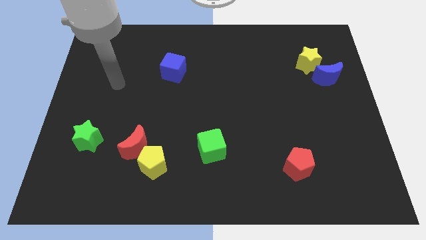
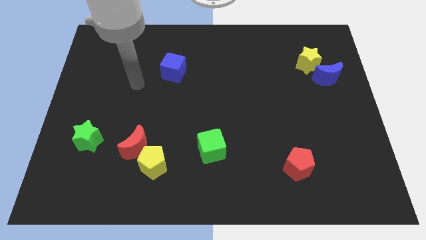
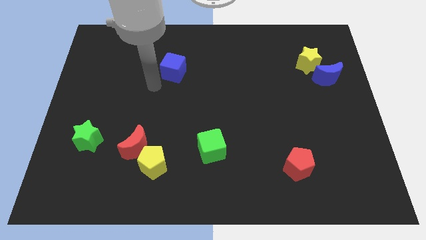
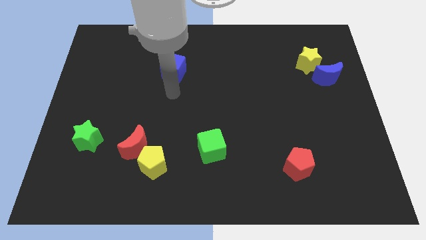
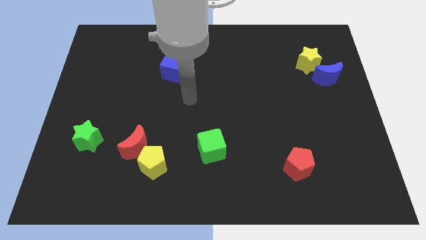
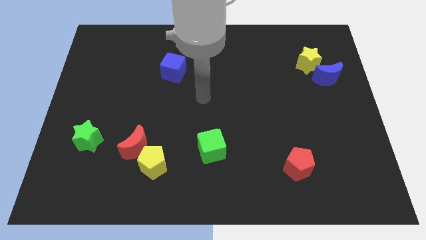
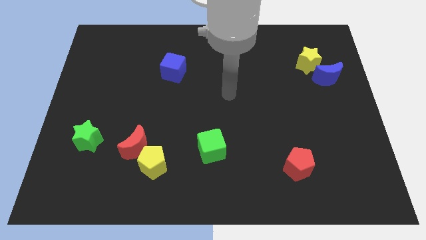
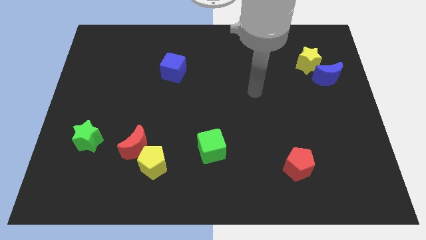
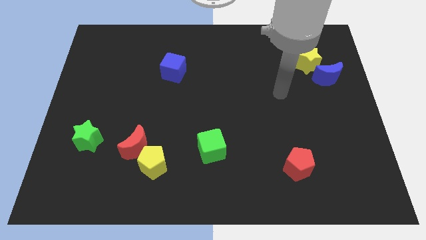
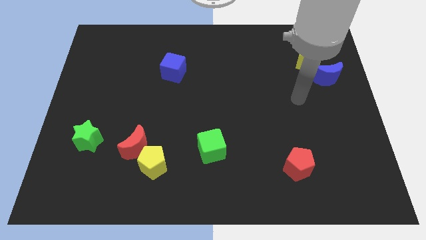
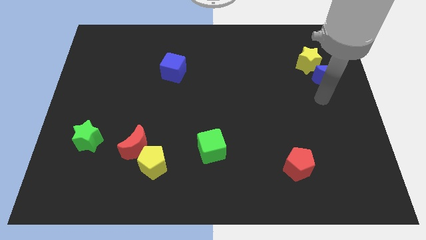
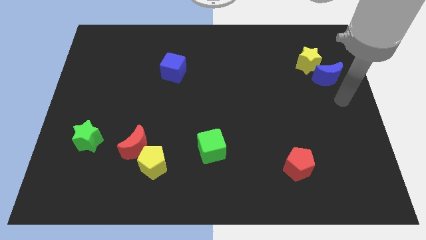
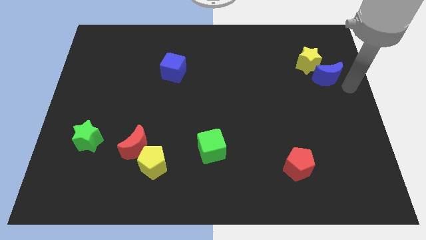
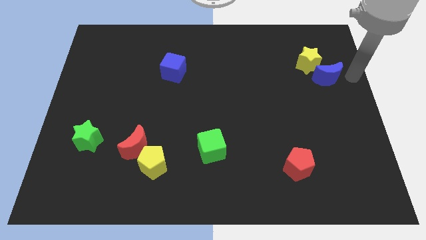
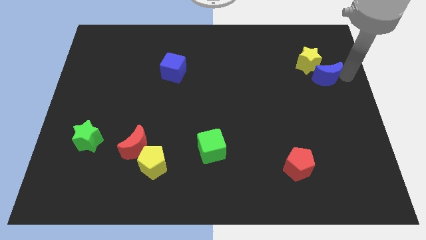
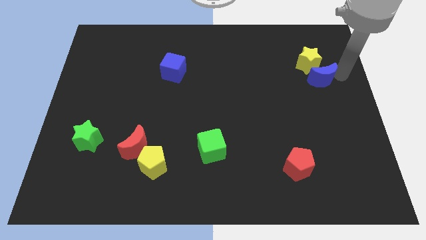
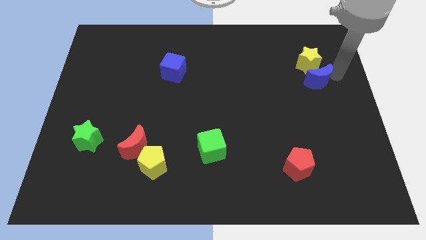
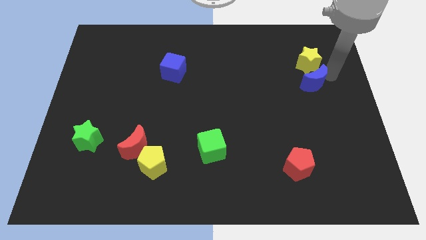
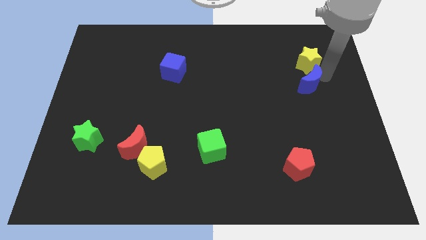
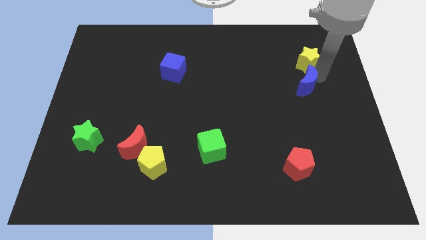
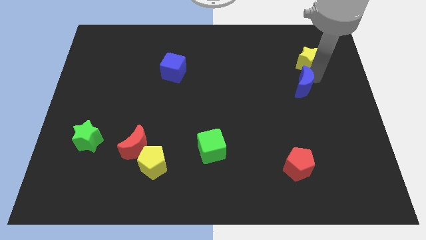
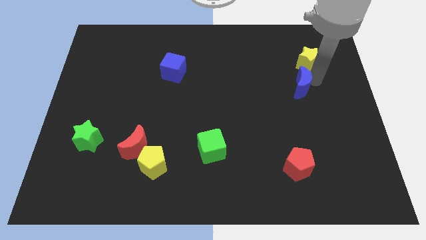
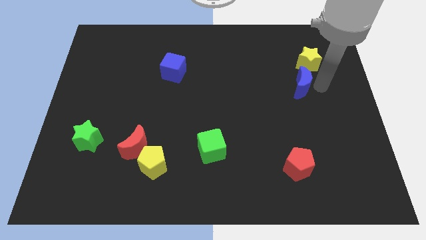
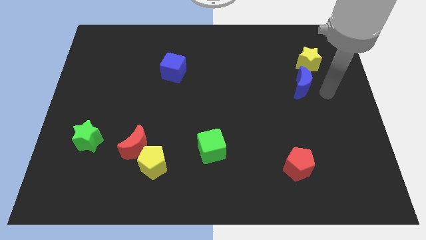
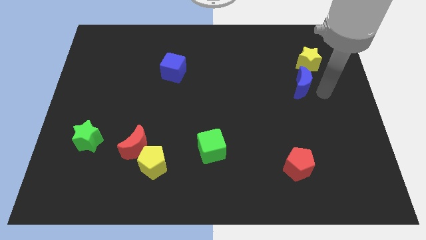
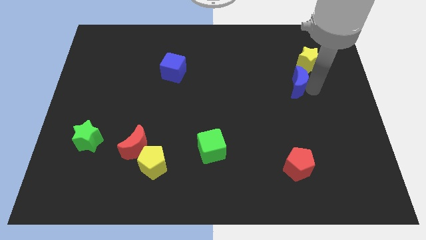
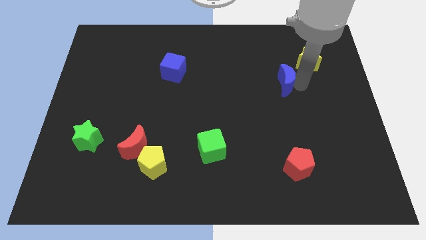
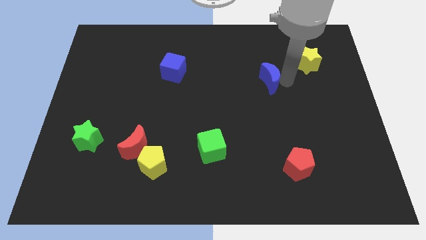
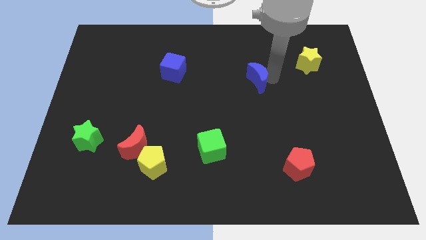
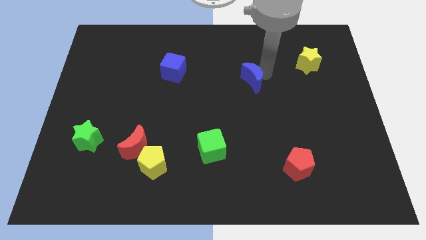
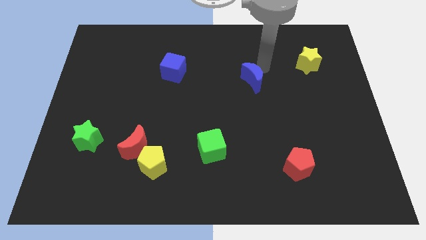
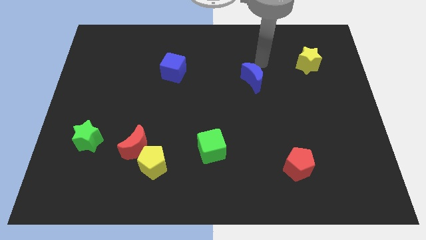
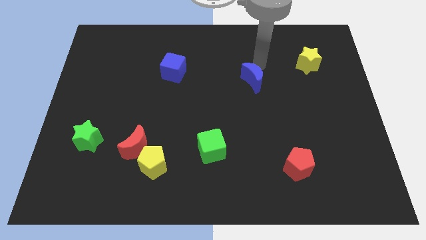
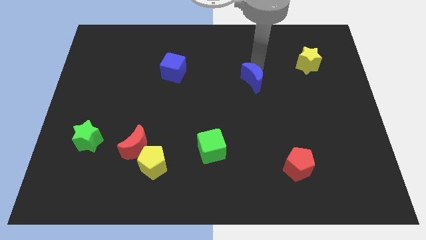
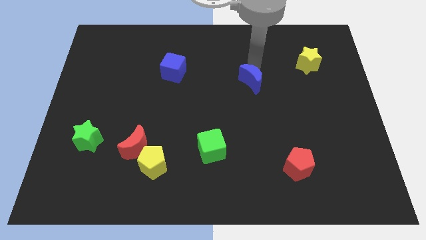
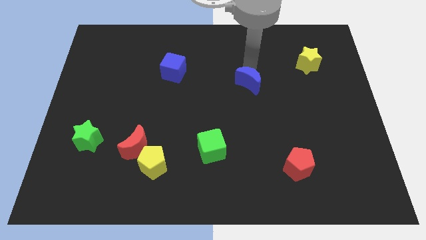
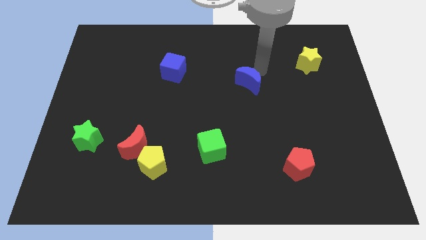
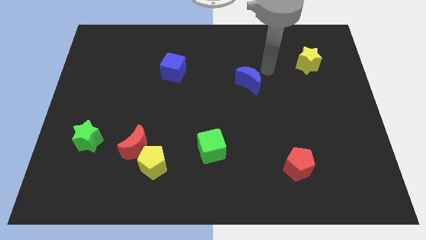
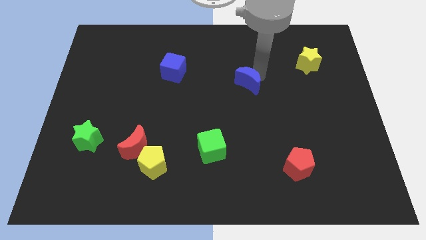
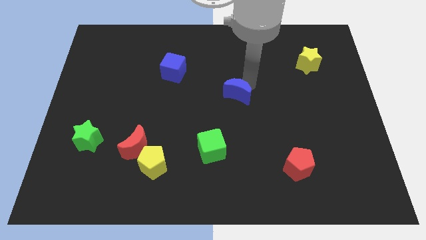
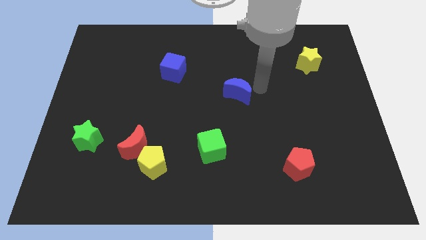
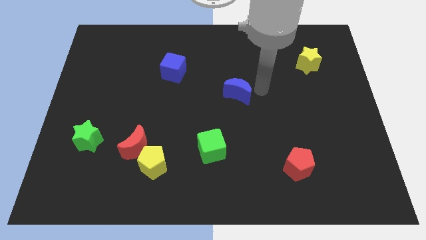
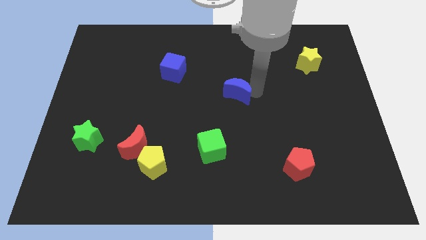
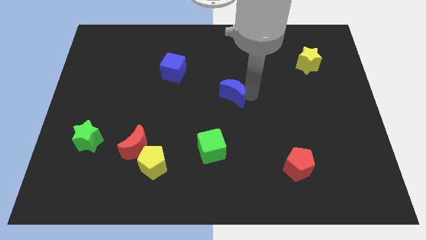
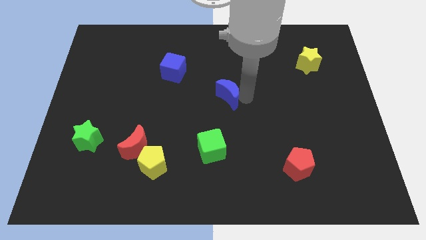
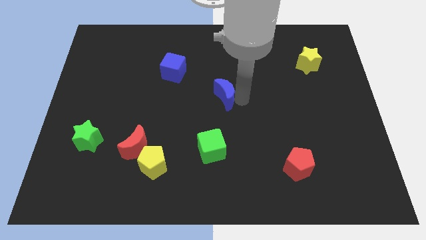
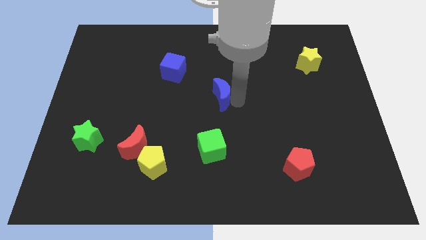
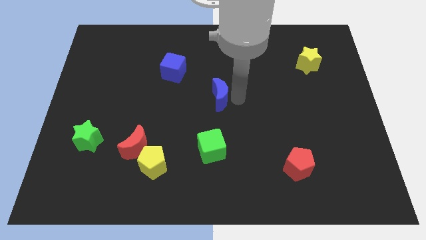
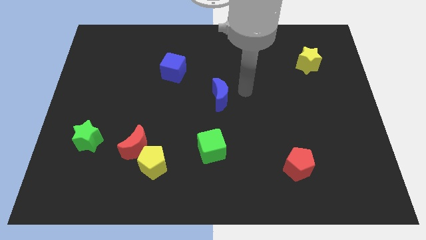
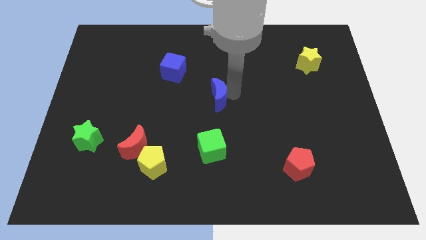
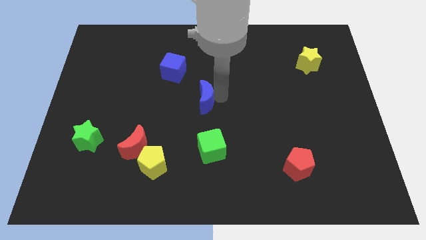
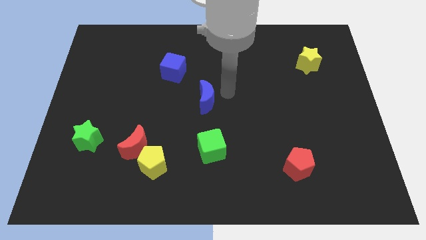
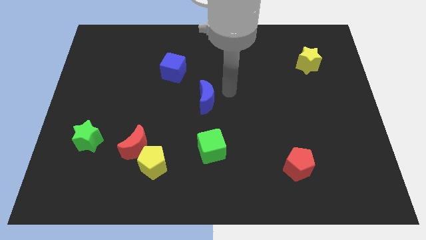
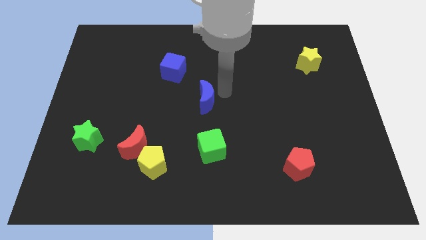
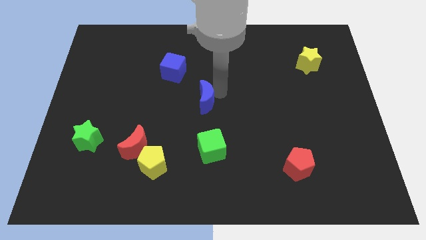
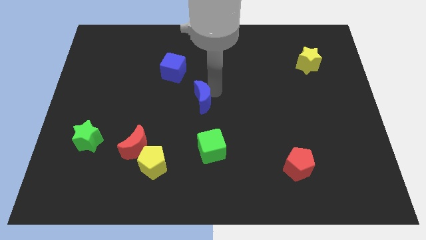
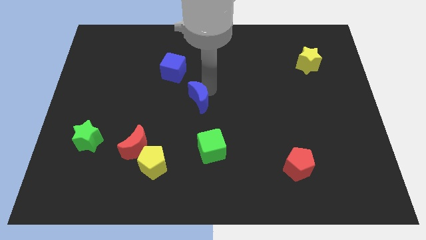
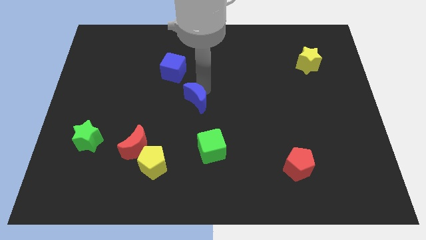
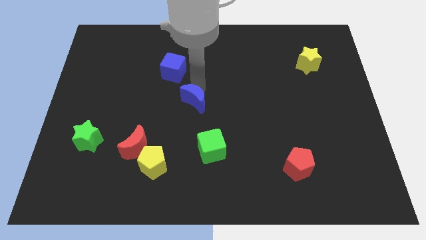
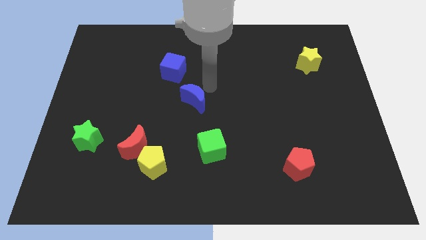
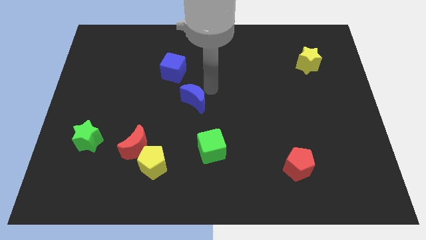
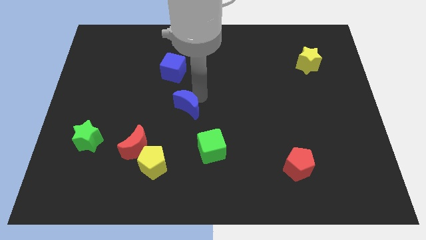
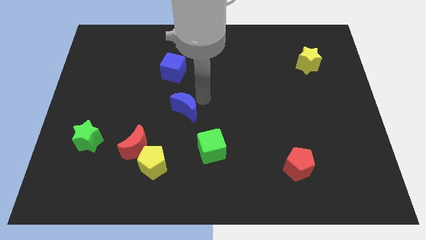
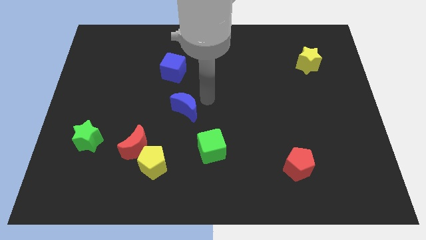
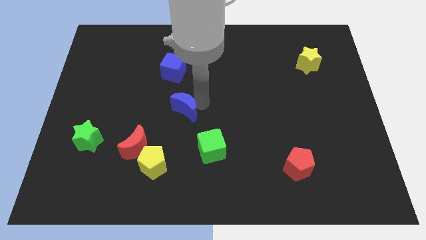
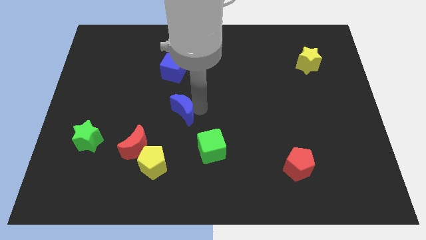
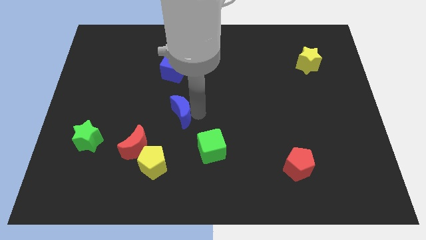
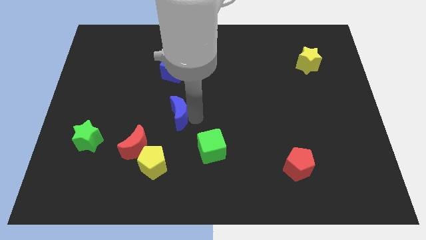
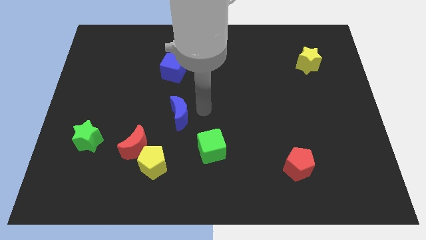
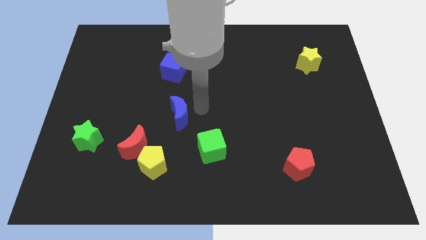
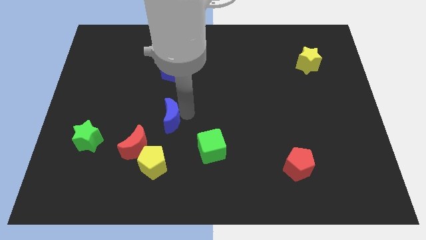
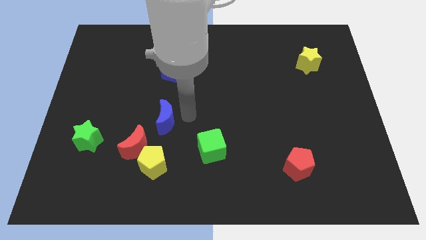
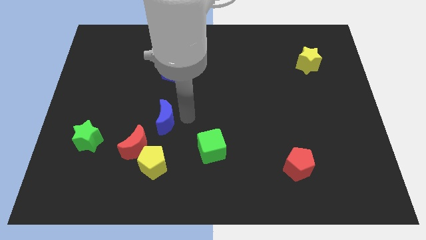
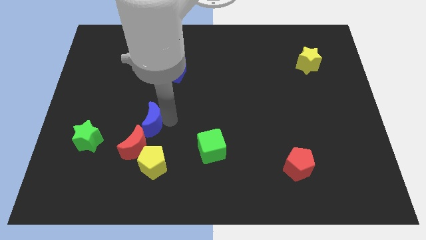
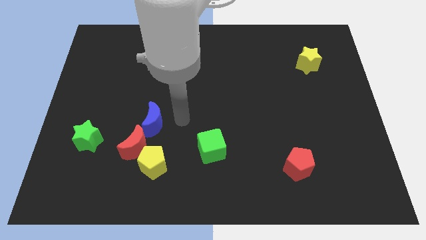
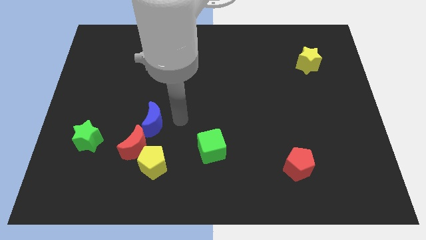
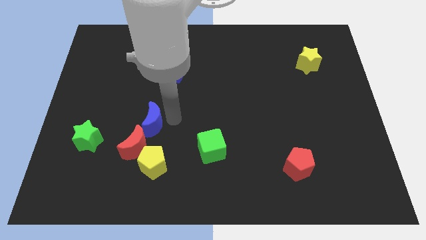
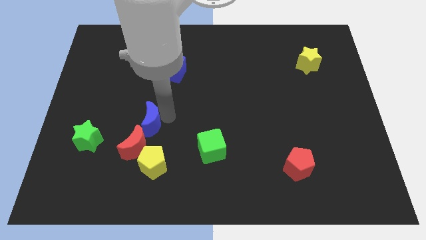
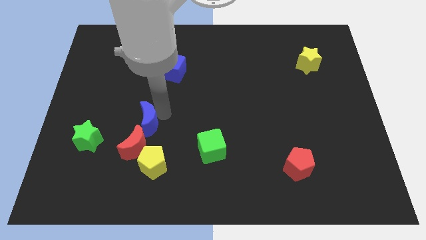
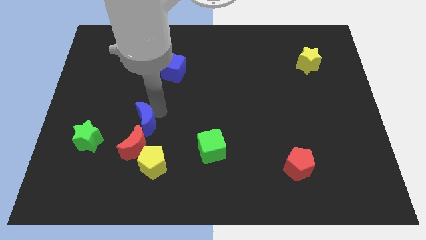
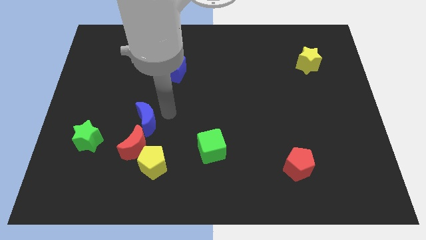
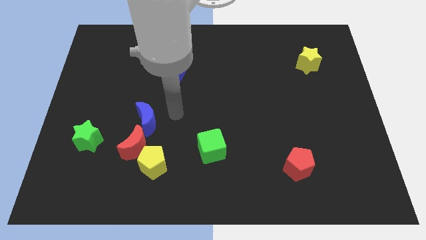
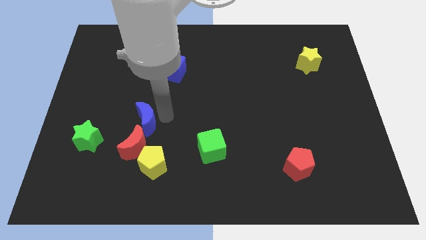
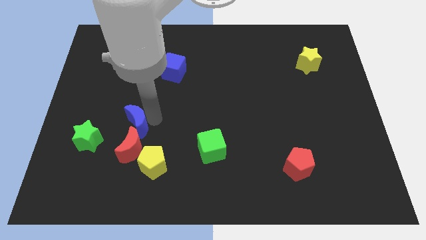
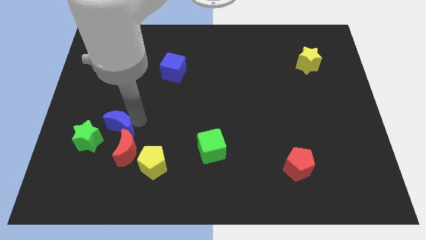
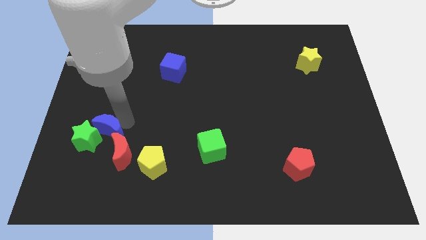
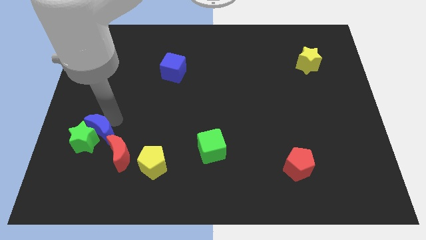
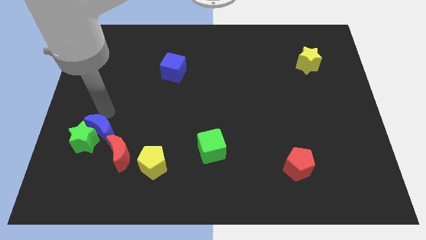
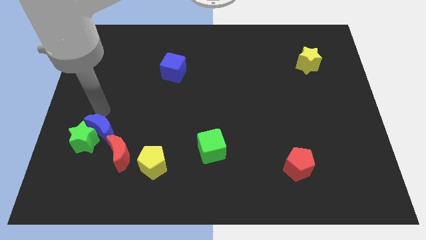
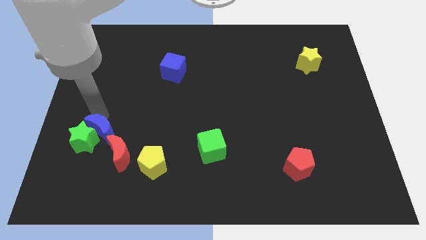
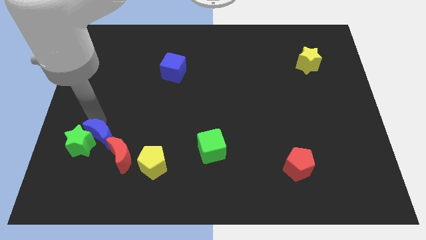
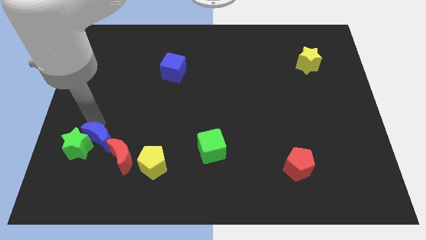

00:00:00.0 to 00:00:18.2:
move the blue moon just left of the red moon
